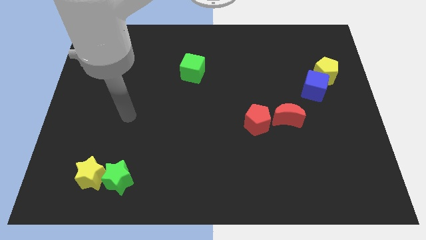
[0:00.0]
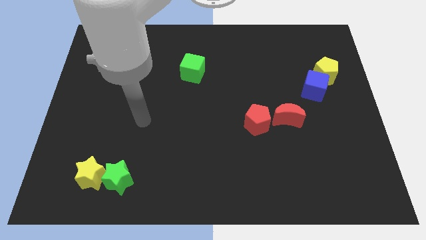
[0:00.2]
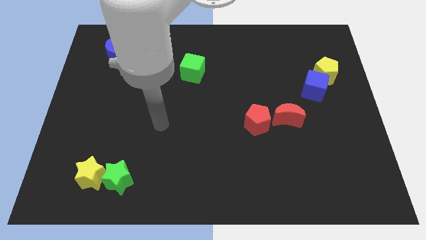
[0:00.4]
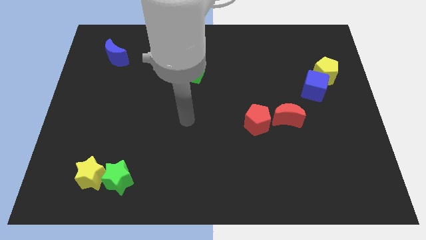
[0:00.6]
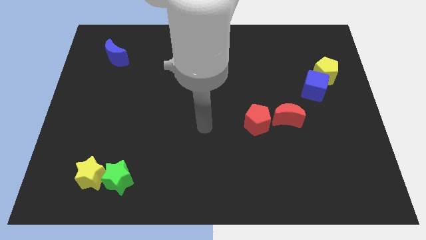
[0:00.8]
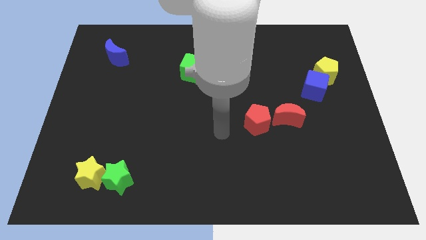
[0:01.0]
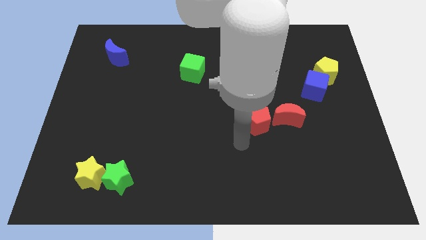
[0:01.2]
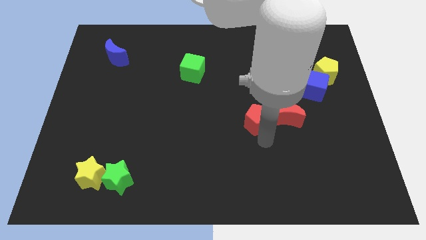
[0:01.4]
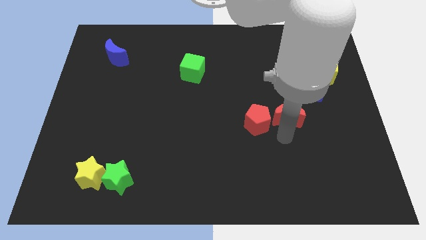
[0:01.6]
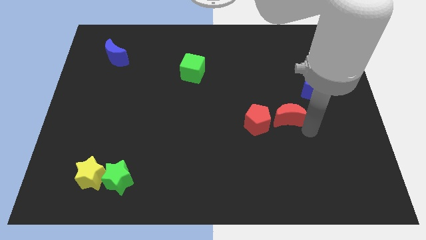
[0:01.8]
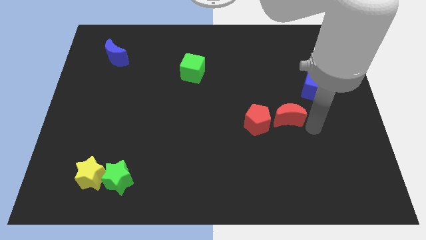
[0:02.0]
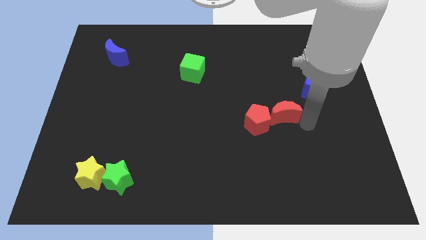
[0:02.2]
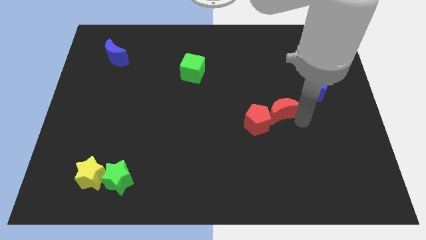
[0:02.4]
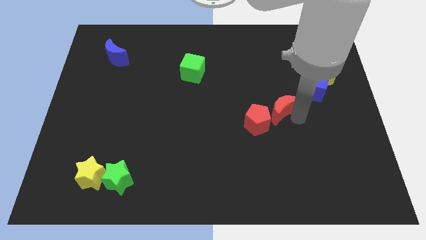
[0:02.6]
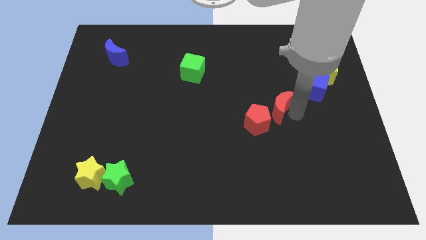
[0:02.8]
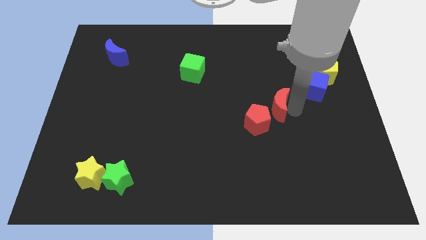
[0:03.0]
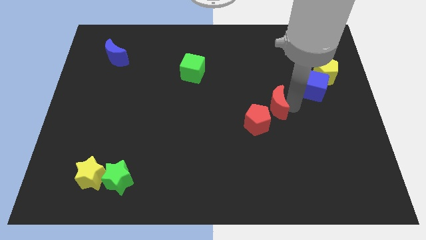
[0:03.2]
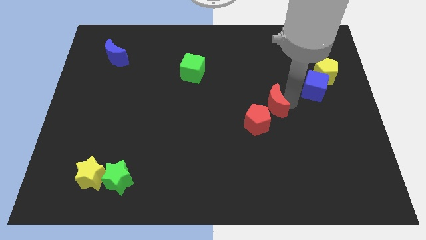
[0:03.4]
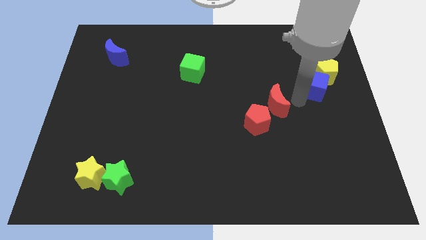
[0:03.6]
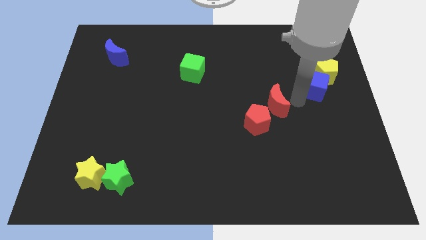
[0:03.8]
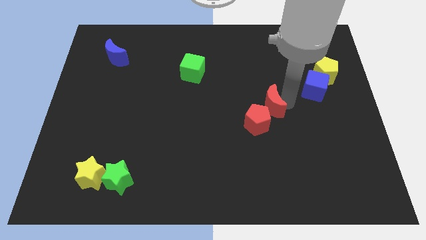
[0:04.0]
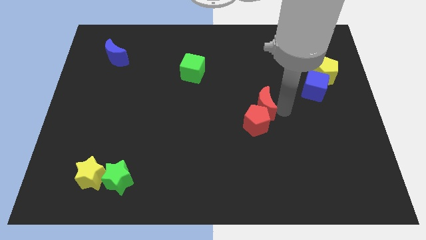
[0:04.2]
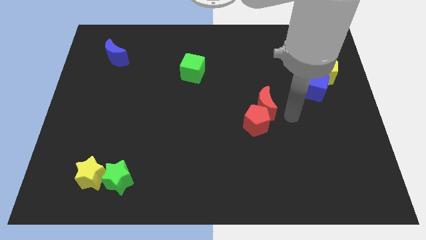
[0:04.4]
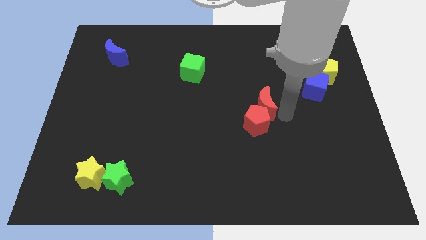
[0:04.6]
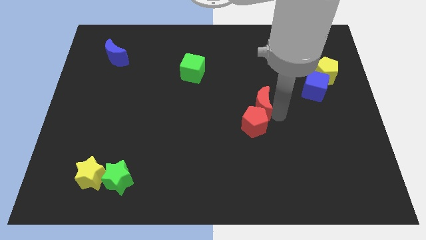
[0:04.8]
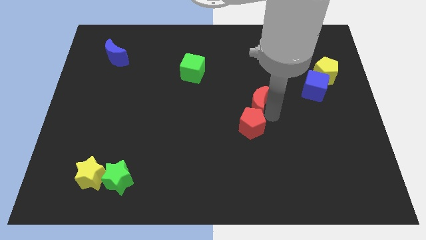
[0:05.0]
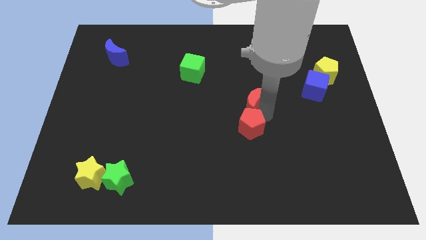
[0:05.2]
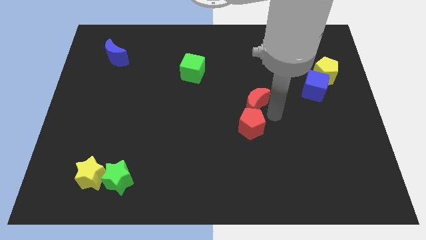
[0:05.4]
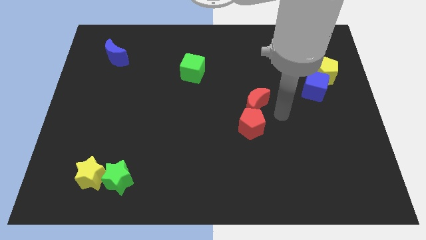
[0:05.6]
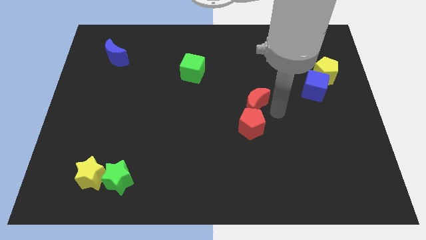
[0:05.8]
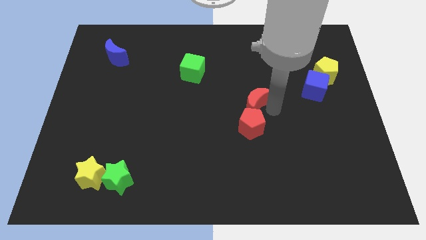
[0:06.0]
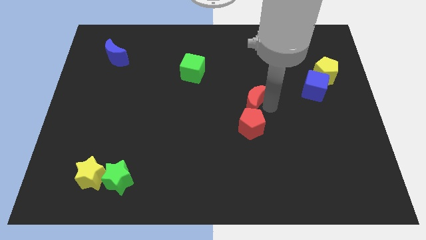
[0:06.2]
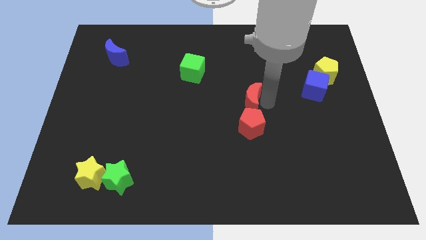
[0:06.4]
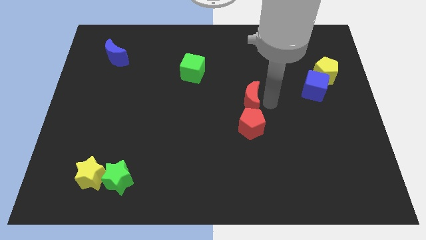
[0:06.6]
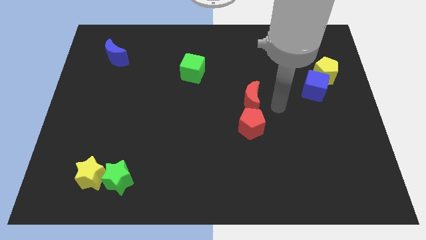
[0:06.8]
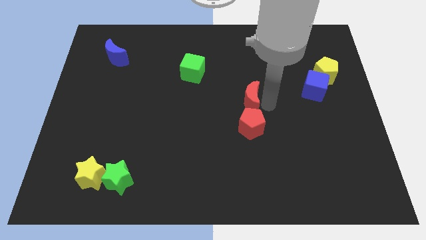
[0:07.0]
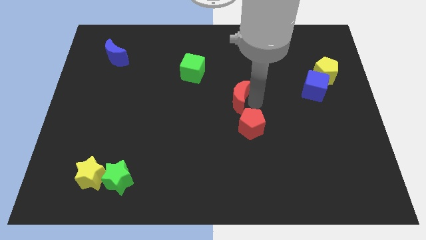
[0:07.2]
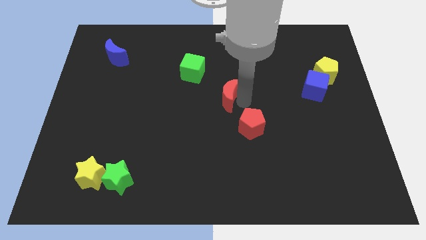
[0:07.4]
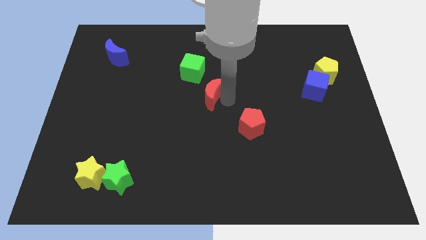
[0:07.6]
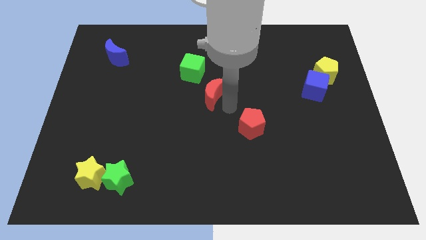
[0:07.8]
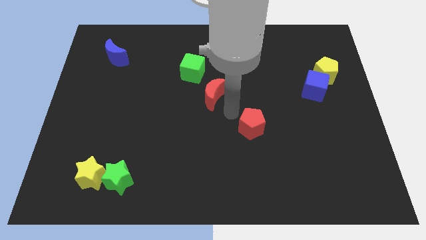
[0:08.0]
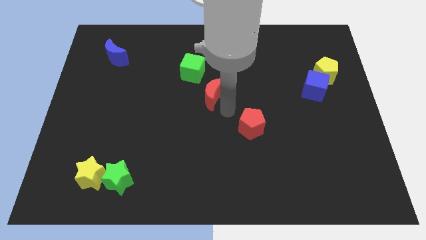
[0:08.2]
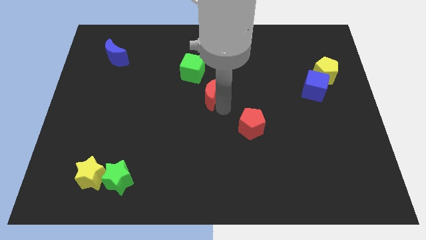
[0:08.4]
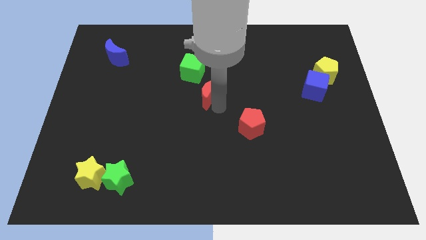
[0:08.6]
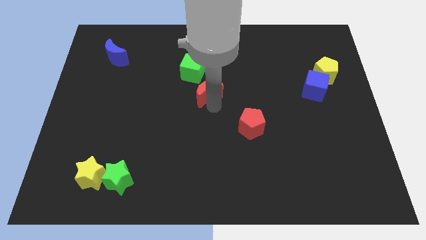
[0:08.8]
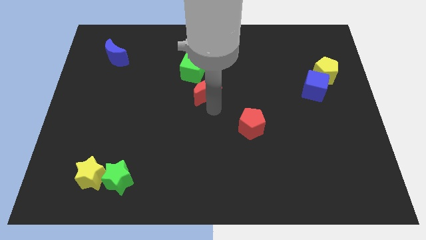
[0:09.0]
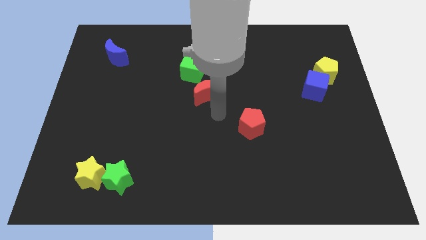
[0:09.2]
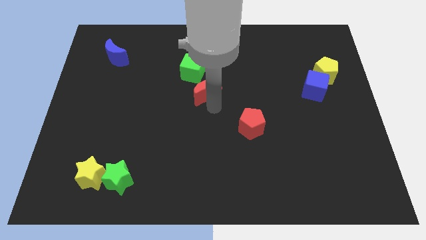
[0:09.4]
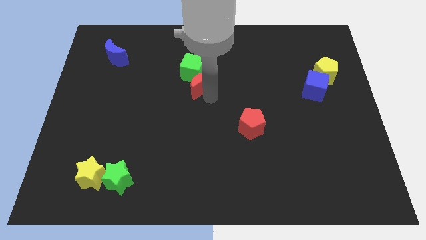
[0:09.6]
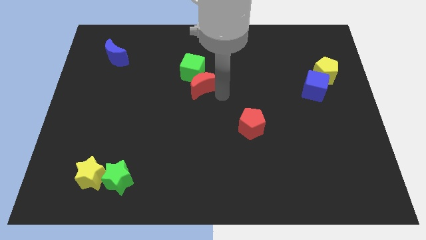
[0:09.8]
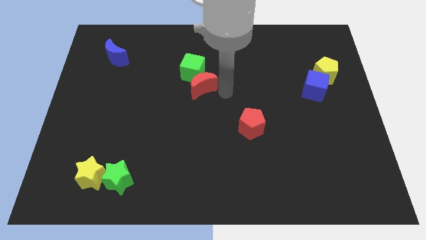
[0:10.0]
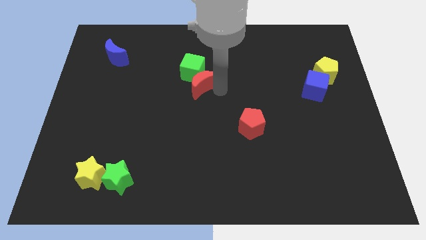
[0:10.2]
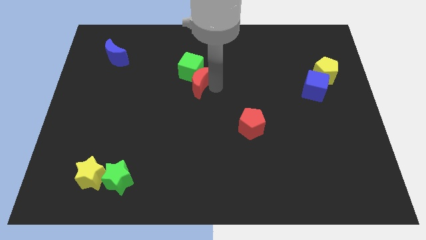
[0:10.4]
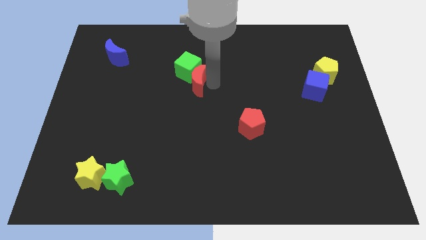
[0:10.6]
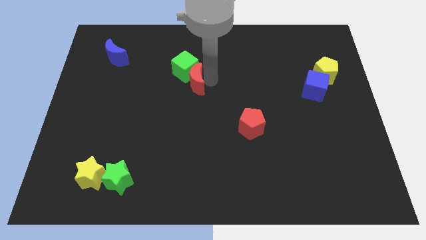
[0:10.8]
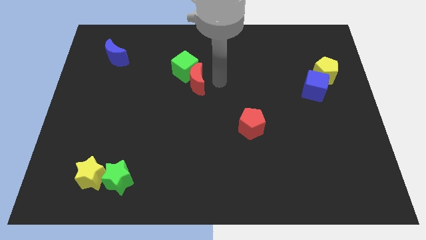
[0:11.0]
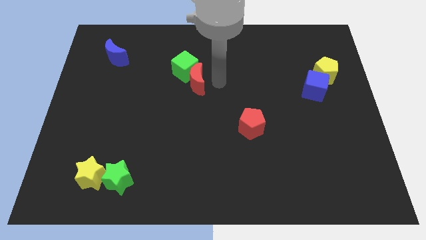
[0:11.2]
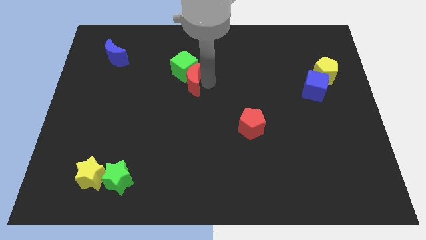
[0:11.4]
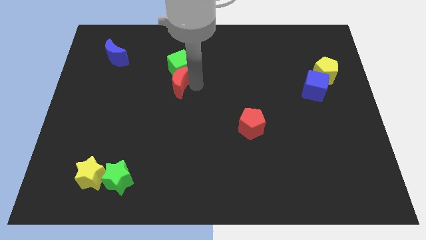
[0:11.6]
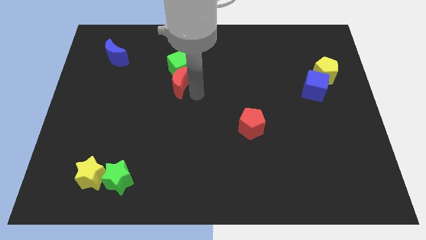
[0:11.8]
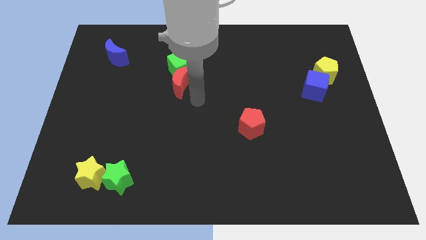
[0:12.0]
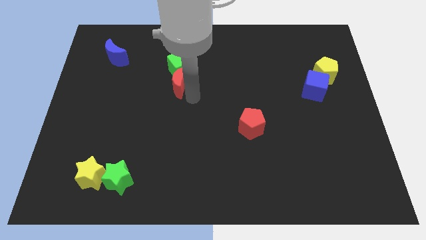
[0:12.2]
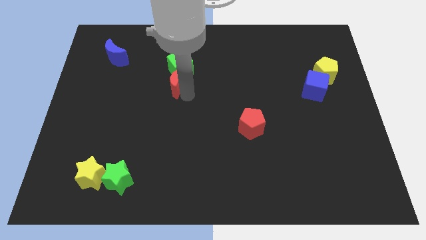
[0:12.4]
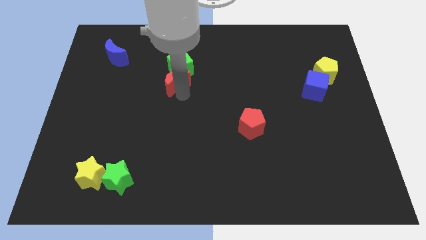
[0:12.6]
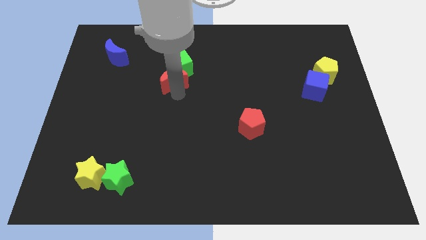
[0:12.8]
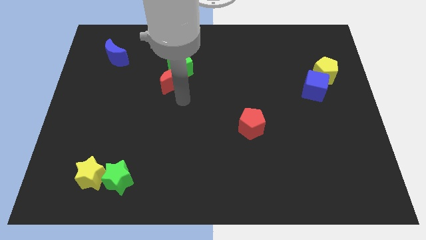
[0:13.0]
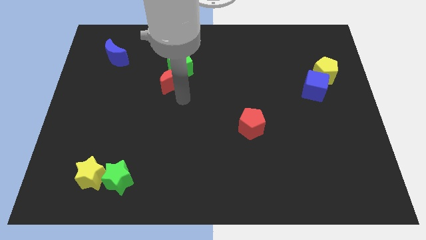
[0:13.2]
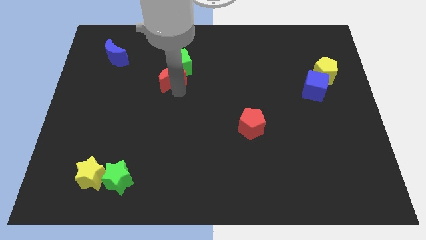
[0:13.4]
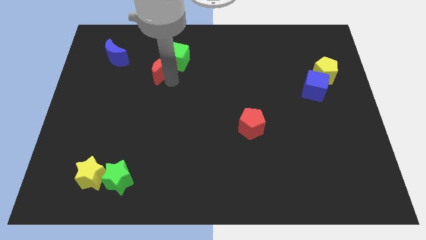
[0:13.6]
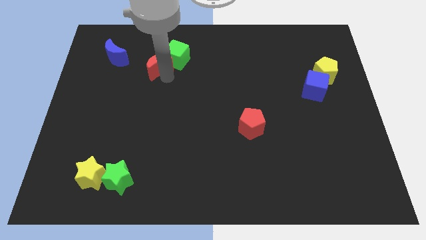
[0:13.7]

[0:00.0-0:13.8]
put the red moon right of the blue moon
